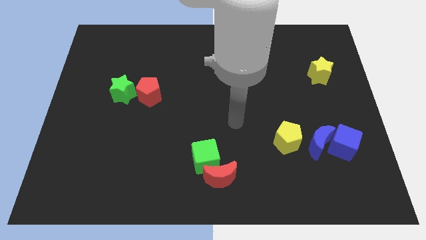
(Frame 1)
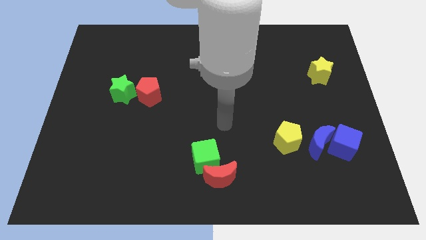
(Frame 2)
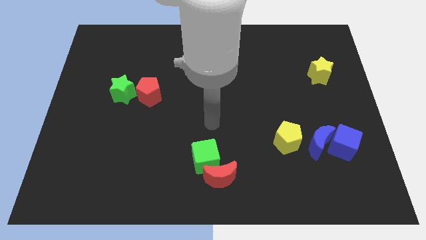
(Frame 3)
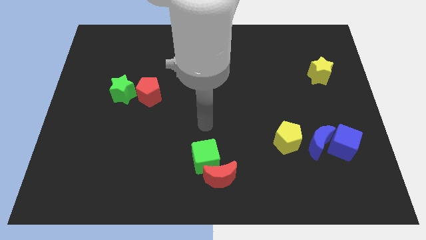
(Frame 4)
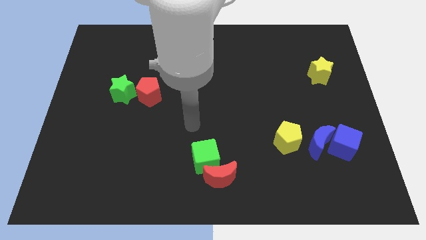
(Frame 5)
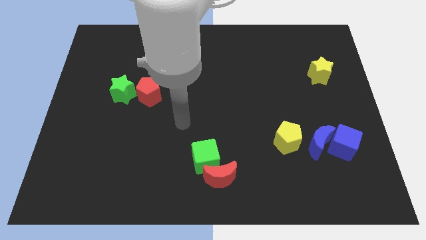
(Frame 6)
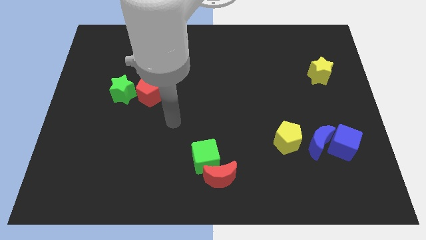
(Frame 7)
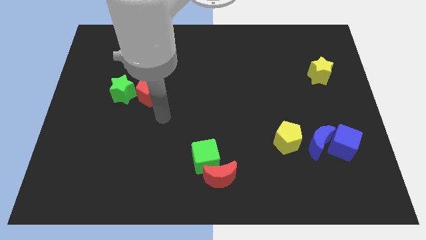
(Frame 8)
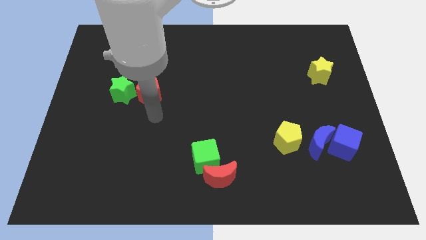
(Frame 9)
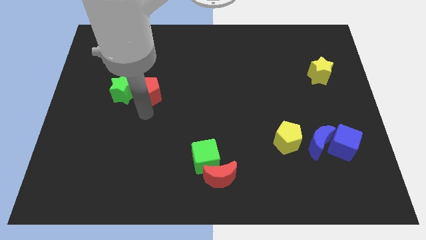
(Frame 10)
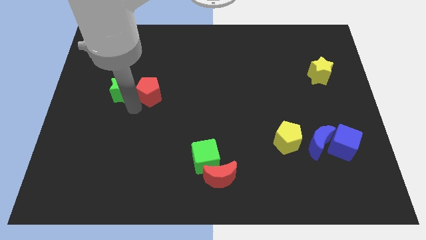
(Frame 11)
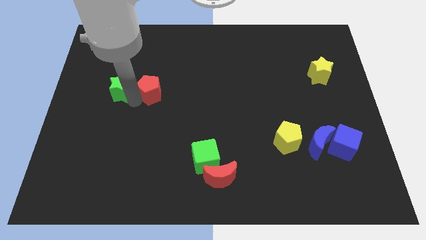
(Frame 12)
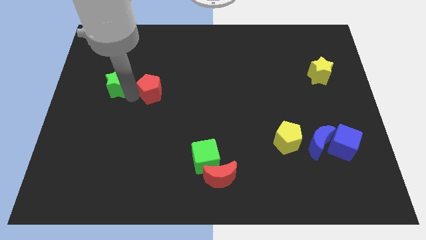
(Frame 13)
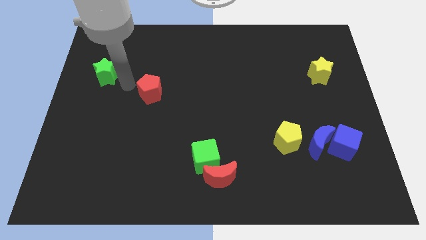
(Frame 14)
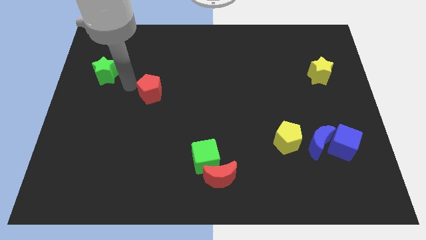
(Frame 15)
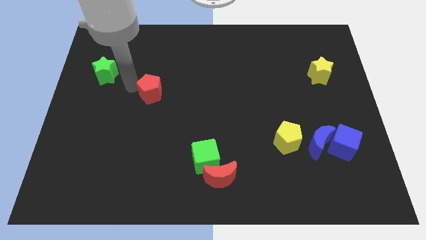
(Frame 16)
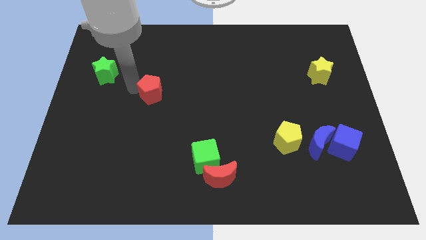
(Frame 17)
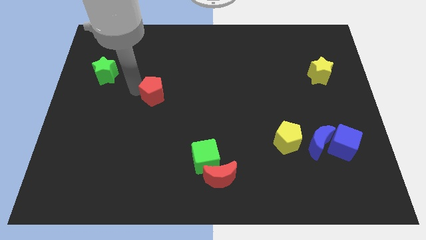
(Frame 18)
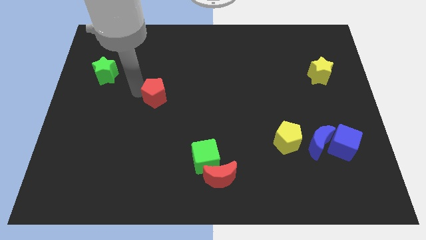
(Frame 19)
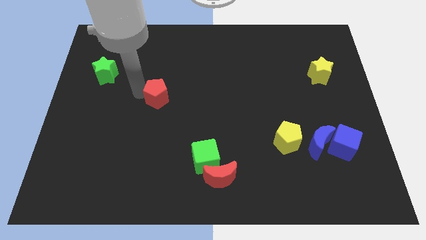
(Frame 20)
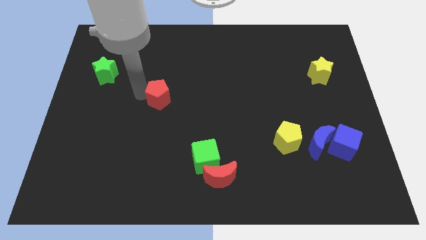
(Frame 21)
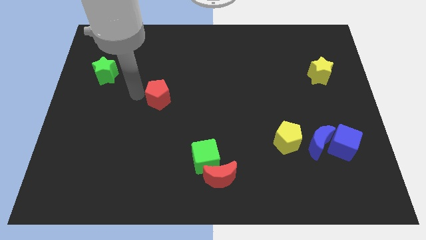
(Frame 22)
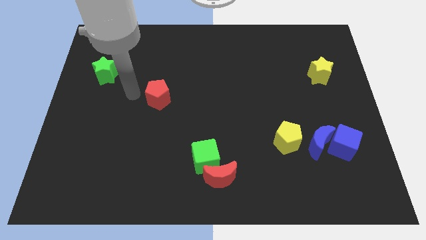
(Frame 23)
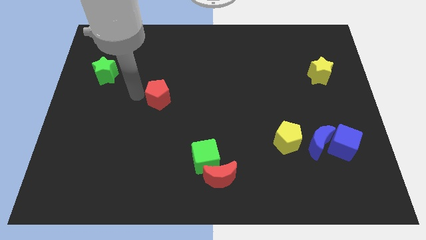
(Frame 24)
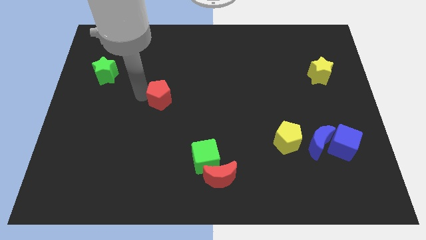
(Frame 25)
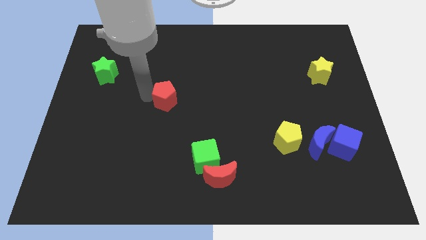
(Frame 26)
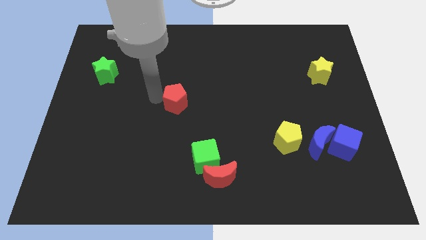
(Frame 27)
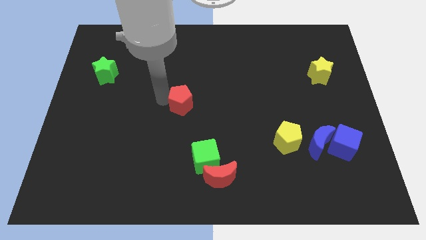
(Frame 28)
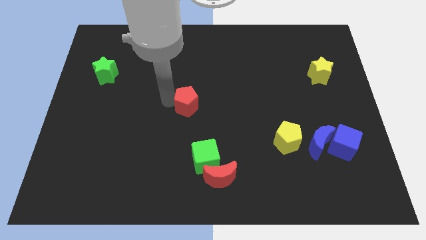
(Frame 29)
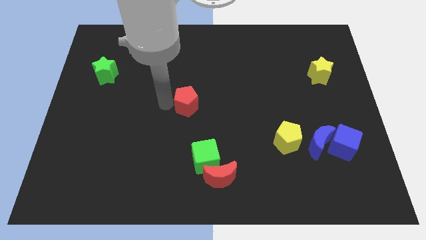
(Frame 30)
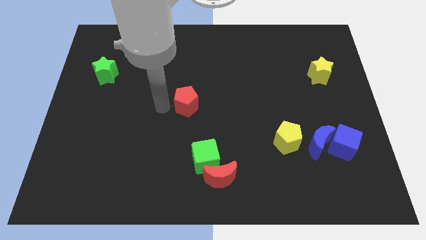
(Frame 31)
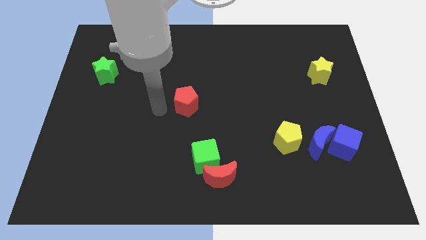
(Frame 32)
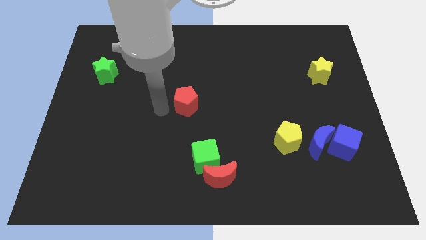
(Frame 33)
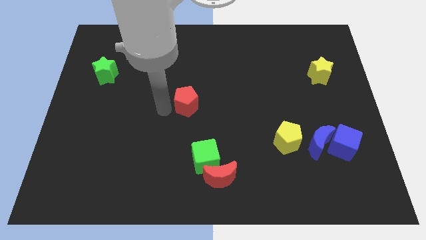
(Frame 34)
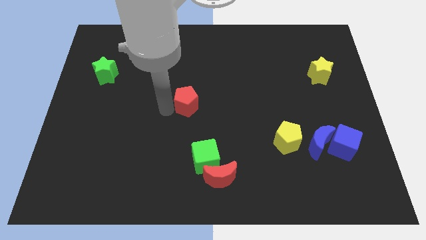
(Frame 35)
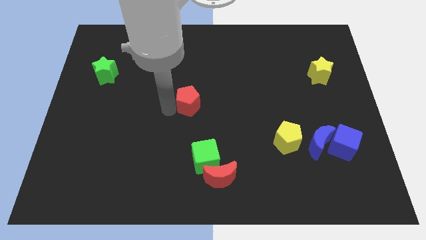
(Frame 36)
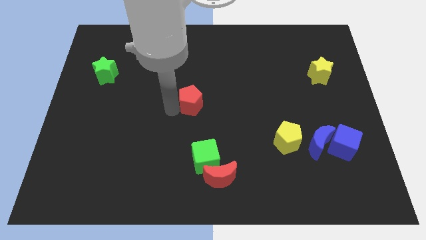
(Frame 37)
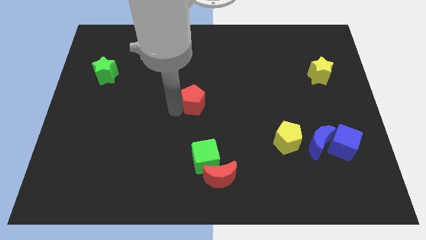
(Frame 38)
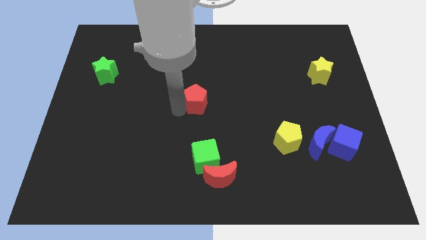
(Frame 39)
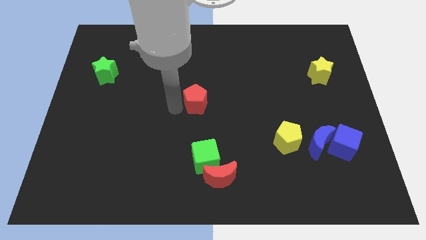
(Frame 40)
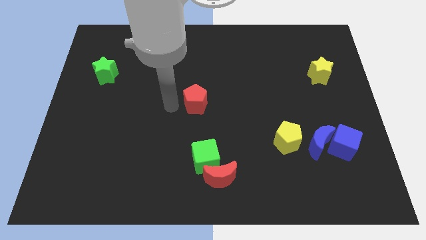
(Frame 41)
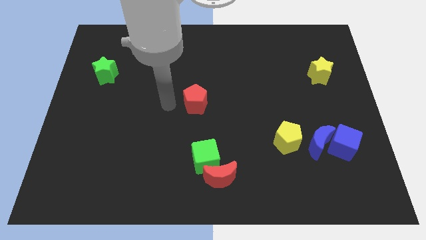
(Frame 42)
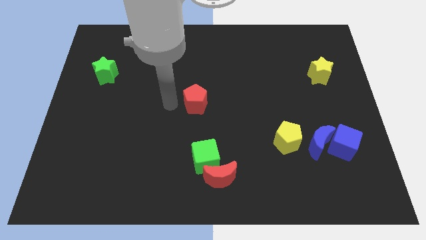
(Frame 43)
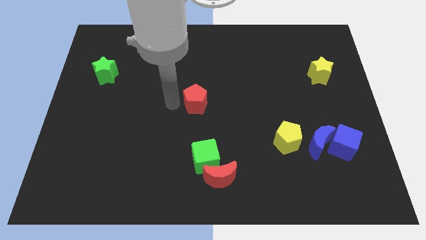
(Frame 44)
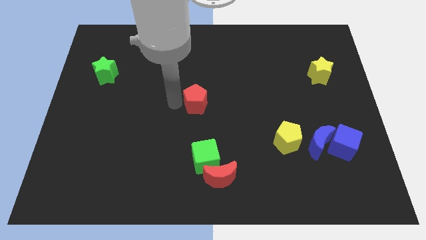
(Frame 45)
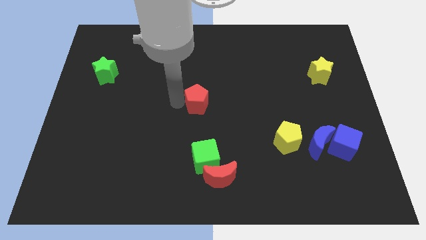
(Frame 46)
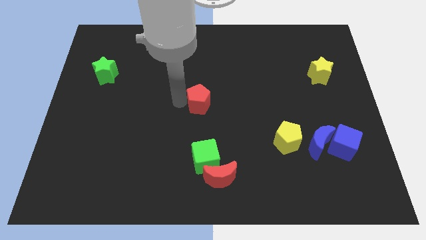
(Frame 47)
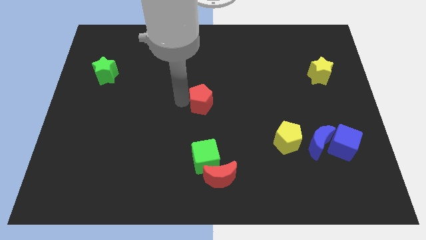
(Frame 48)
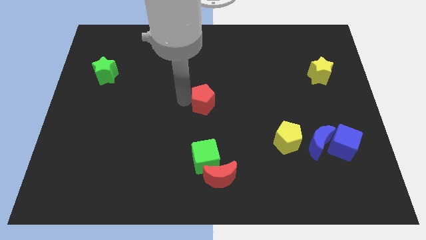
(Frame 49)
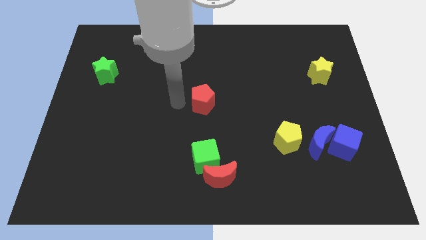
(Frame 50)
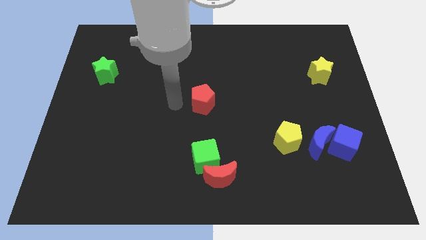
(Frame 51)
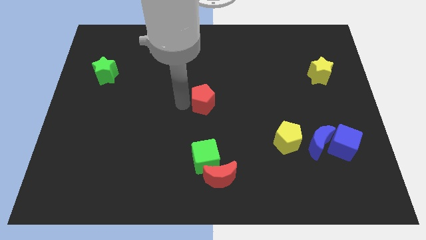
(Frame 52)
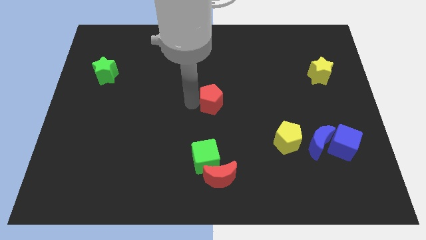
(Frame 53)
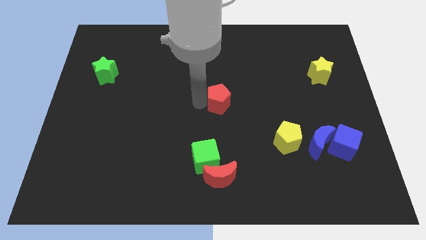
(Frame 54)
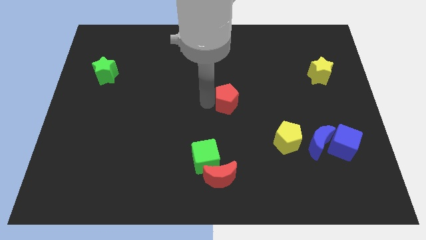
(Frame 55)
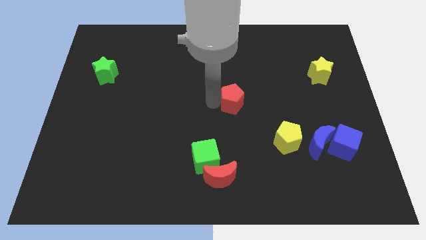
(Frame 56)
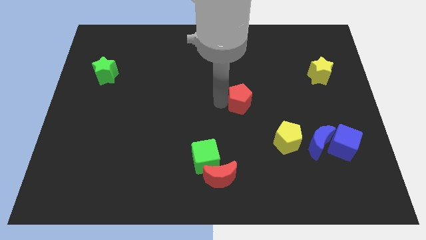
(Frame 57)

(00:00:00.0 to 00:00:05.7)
move the red pentagon to the right

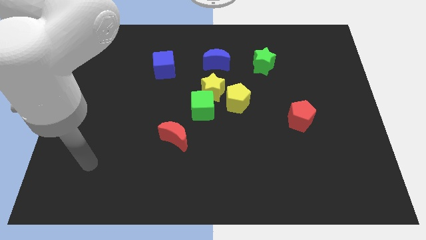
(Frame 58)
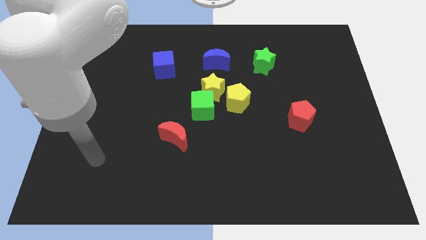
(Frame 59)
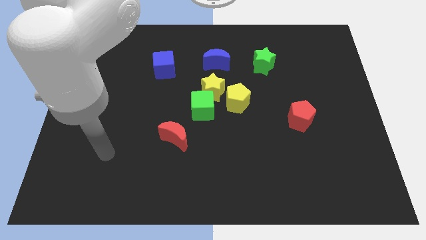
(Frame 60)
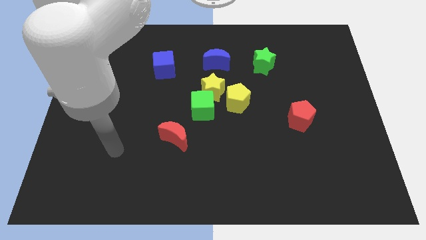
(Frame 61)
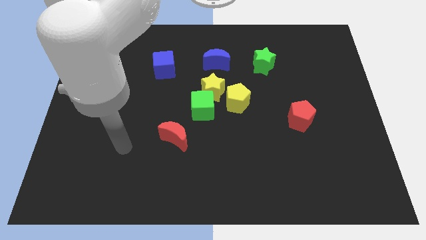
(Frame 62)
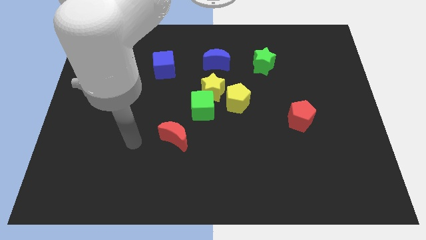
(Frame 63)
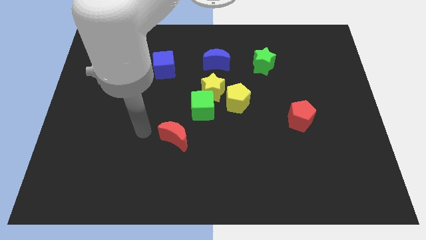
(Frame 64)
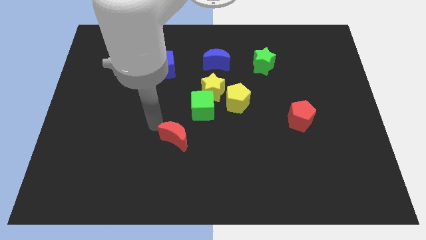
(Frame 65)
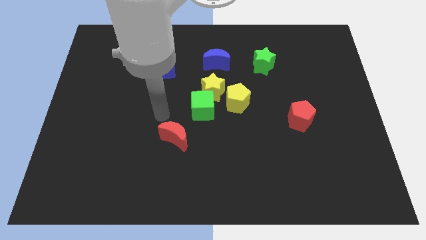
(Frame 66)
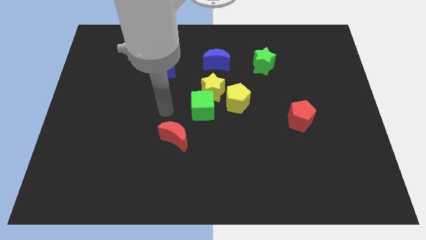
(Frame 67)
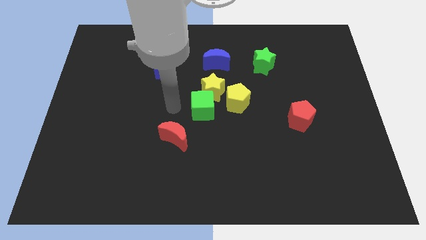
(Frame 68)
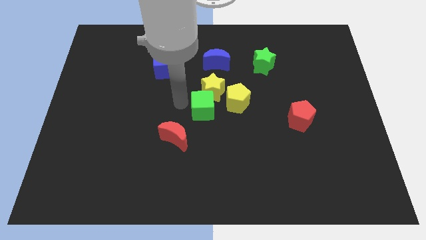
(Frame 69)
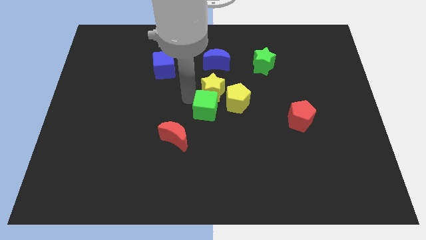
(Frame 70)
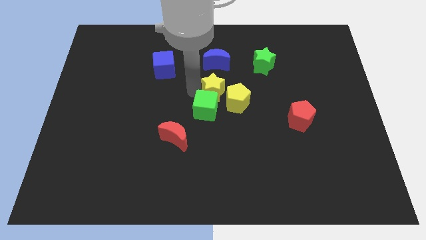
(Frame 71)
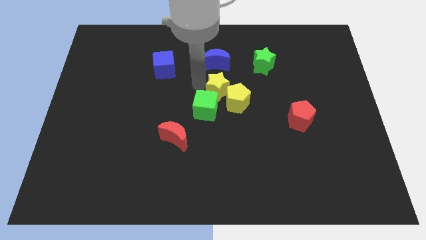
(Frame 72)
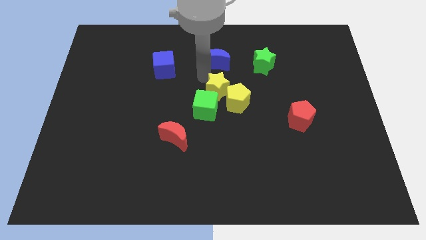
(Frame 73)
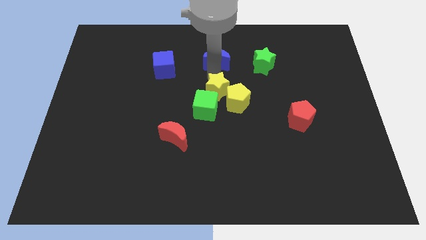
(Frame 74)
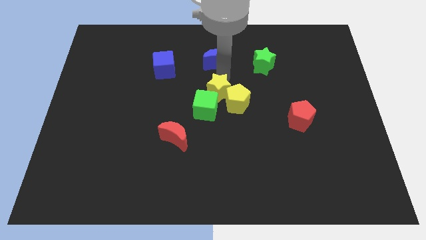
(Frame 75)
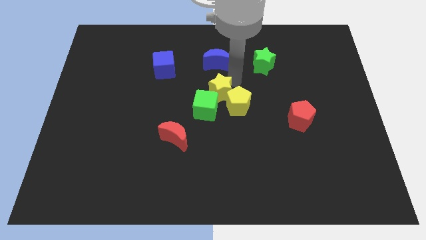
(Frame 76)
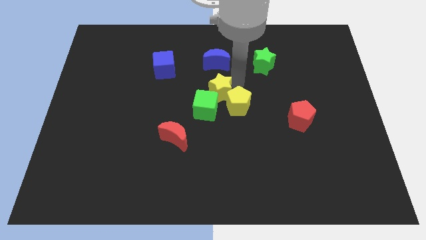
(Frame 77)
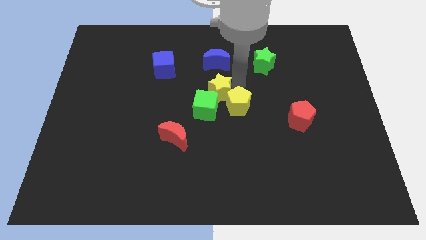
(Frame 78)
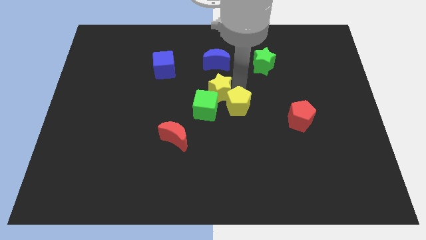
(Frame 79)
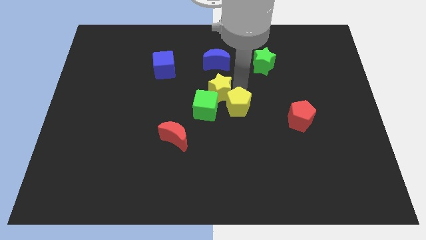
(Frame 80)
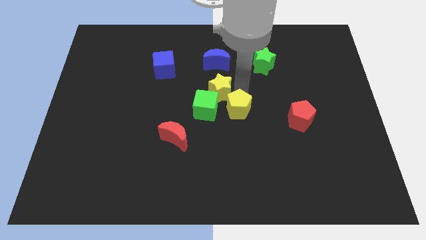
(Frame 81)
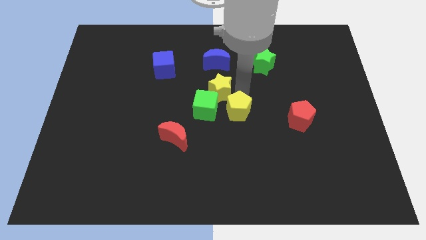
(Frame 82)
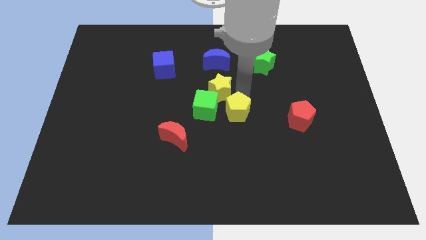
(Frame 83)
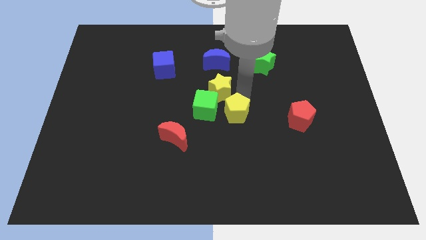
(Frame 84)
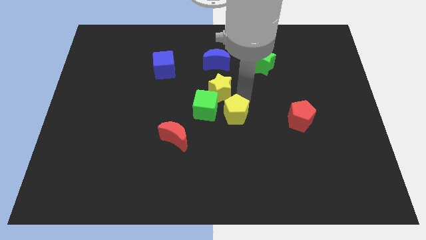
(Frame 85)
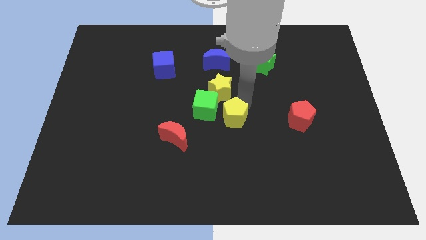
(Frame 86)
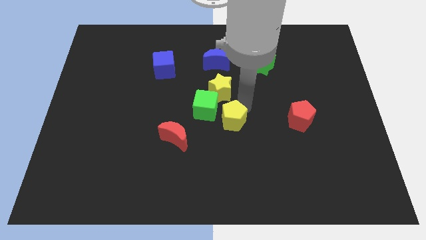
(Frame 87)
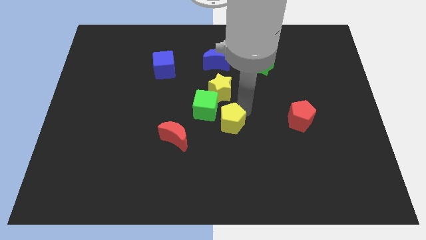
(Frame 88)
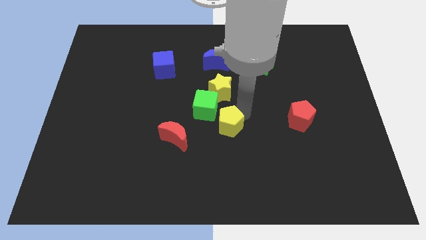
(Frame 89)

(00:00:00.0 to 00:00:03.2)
slide the yellow pentagon a bit downwards
